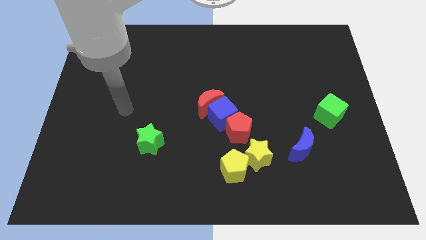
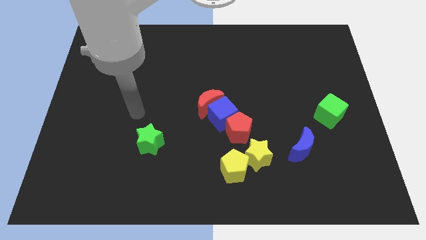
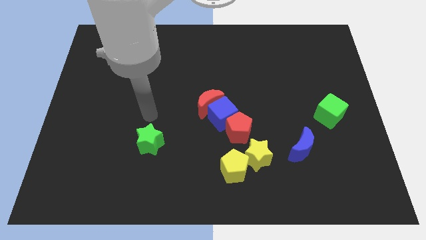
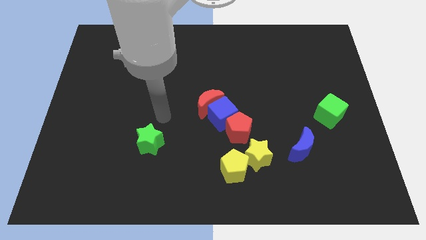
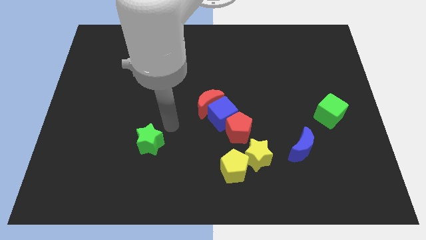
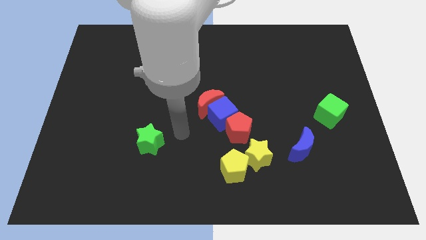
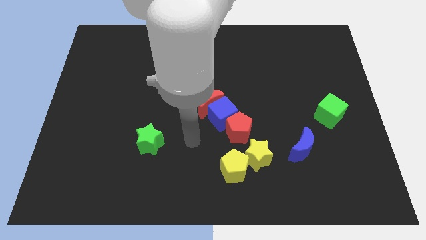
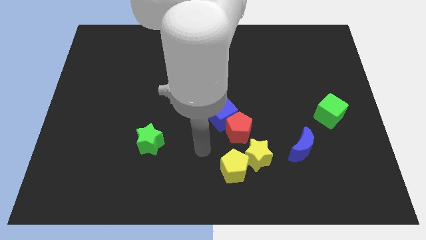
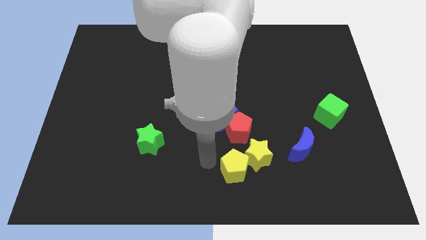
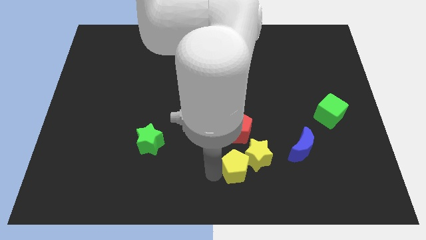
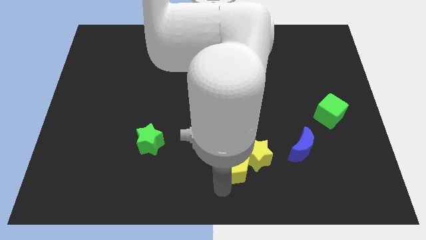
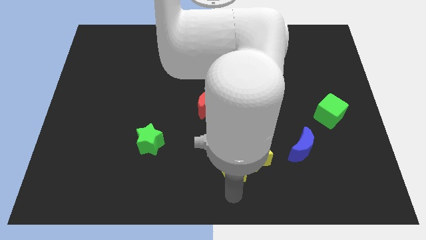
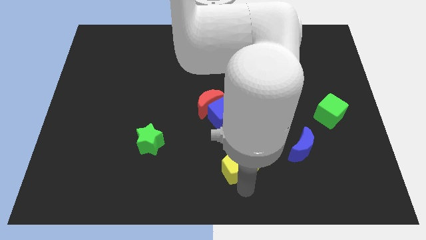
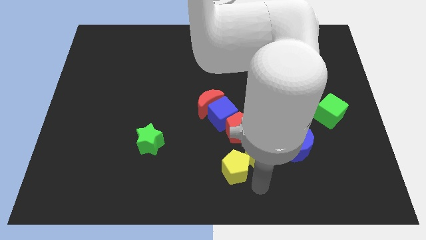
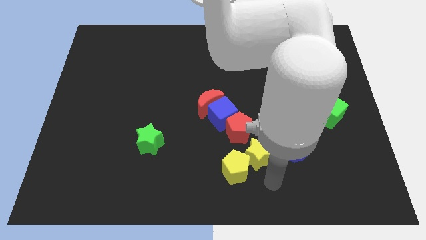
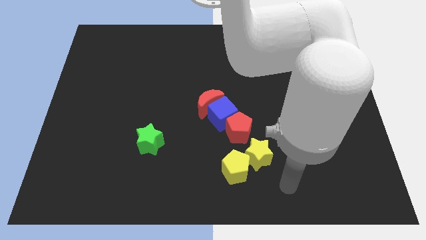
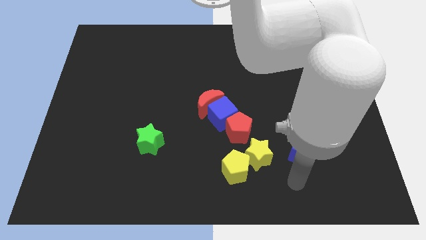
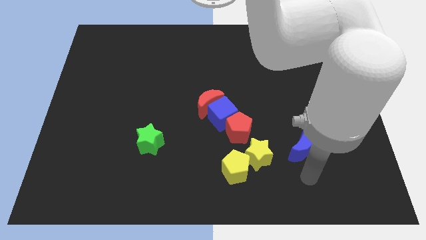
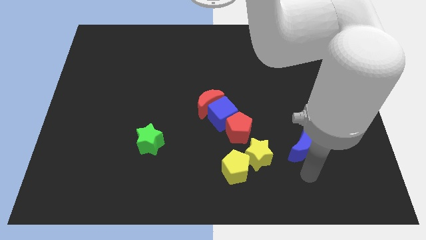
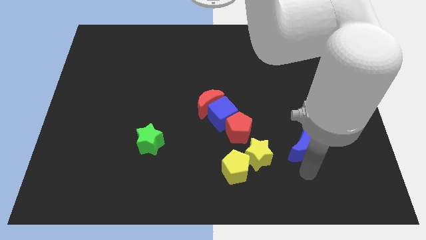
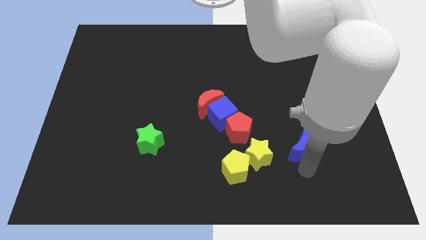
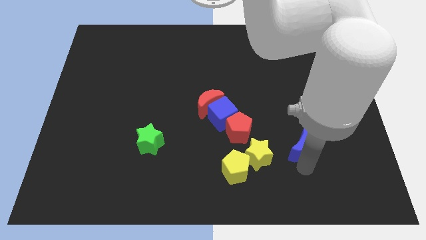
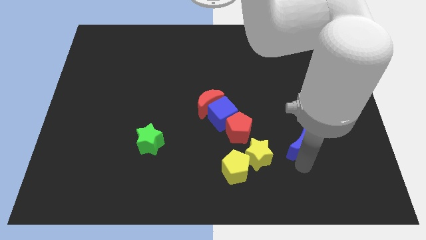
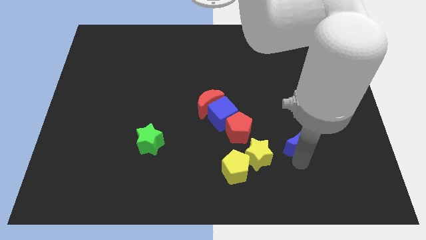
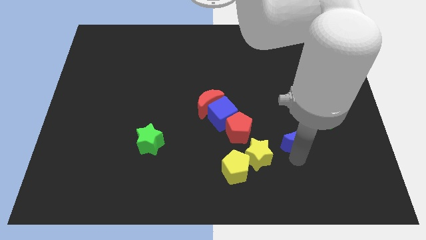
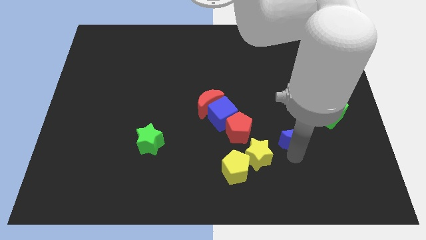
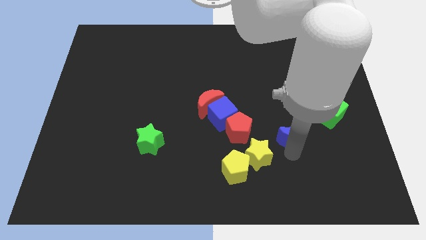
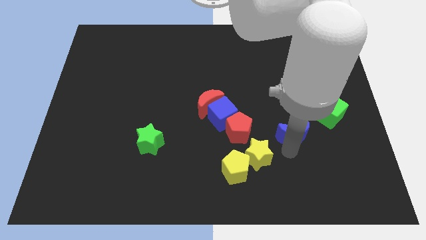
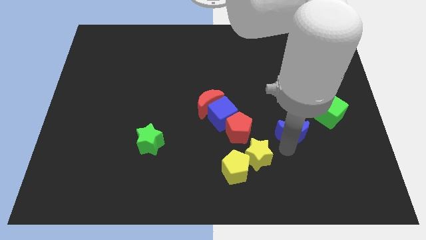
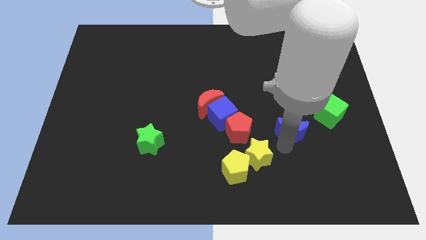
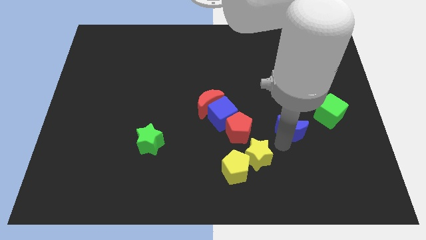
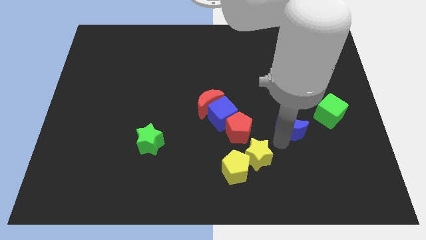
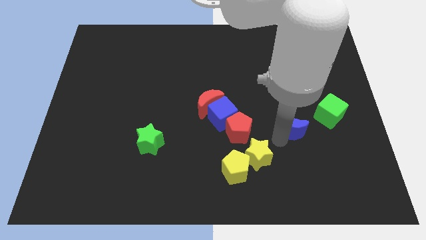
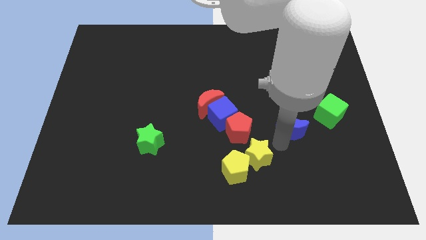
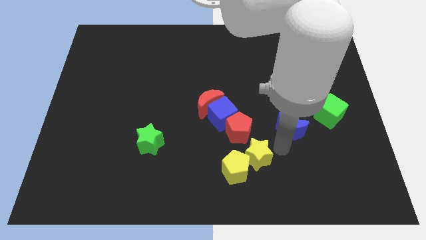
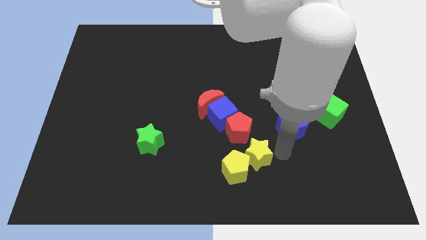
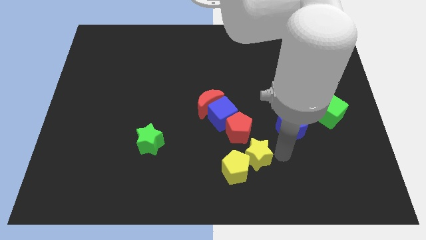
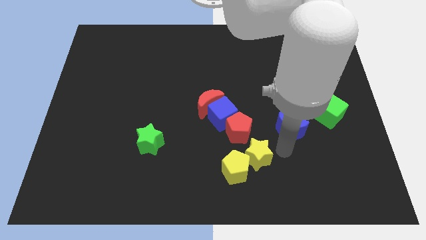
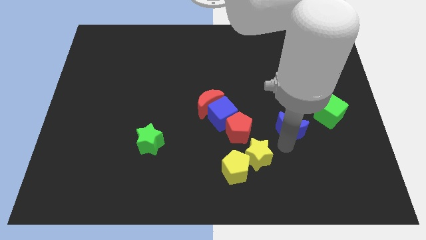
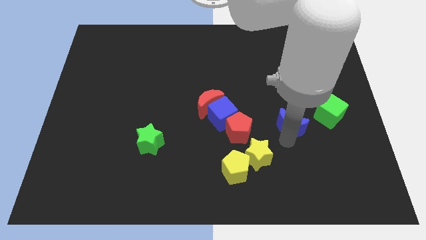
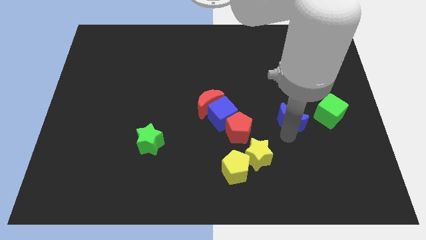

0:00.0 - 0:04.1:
slightly move the blue moon up

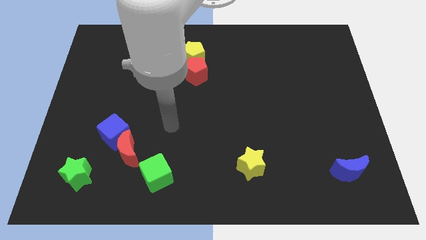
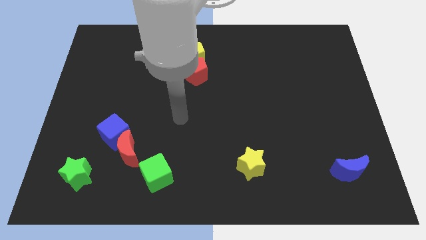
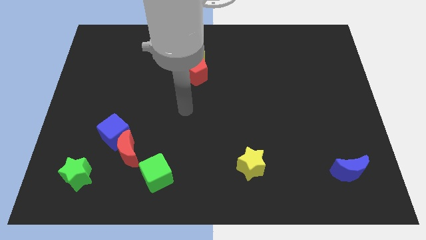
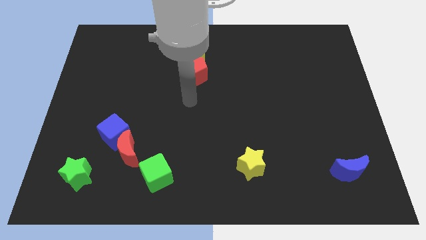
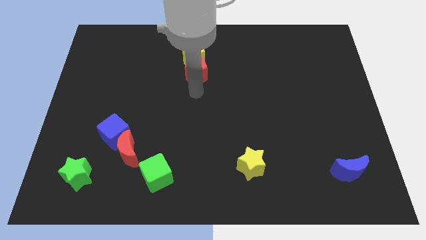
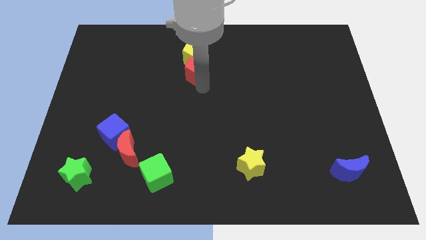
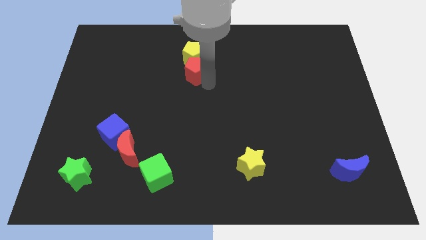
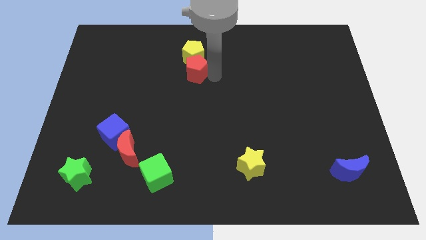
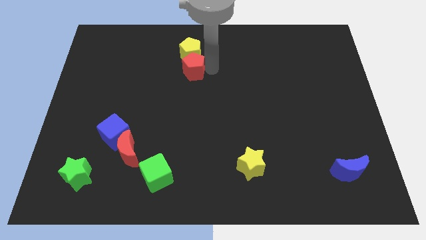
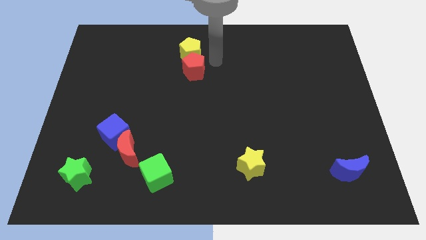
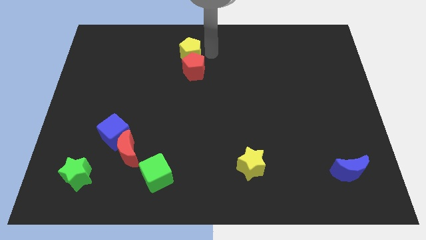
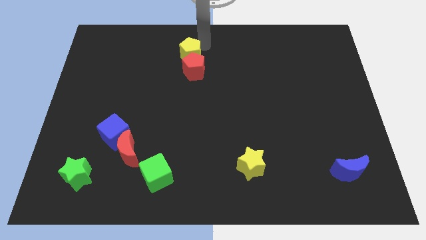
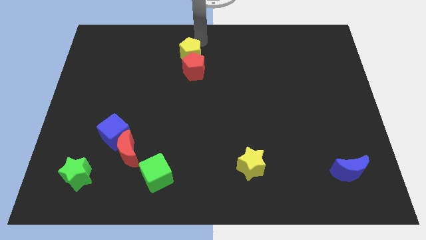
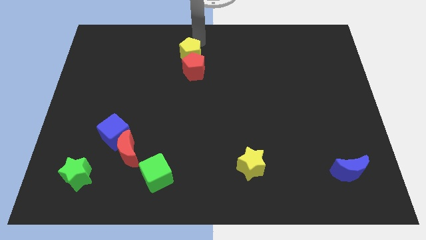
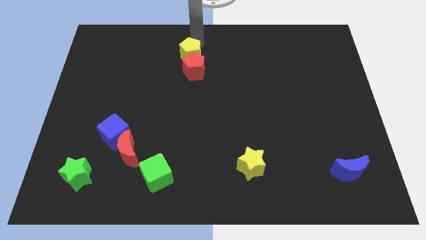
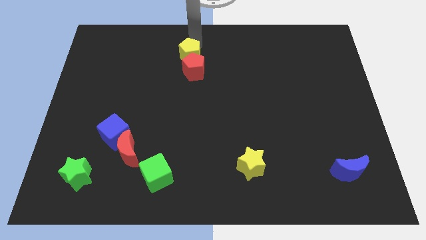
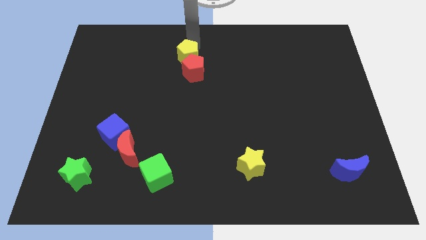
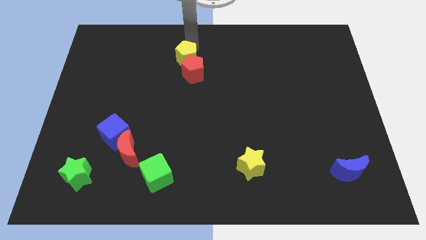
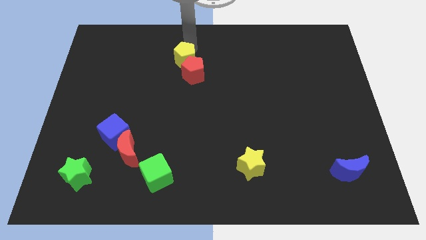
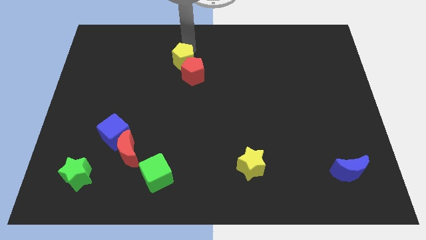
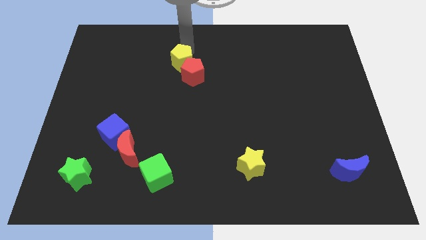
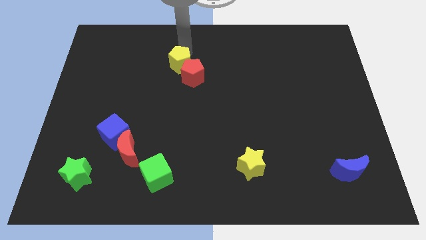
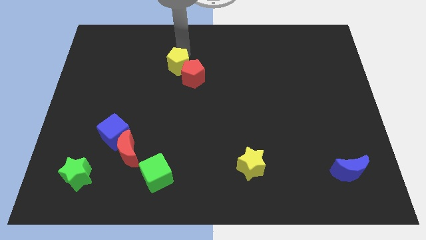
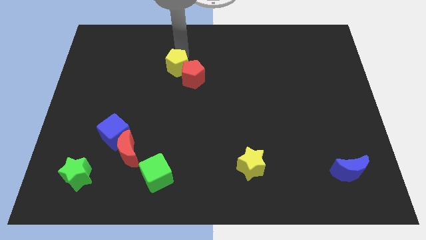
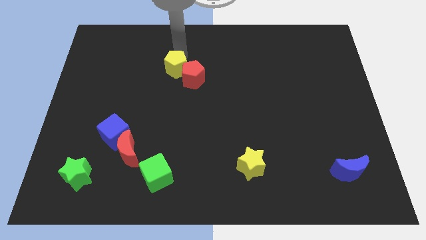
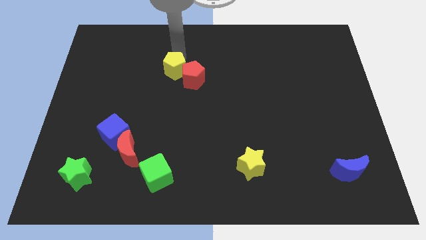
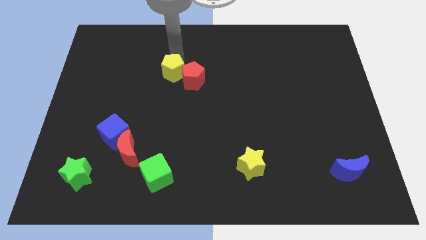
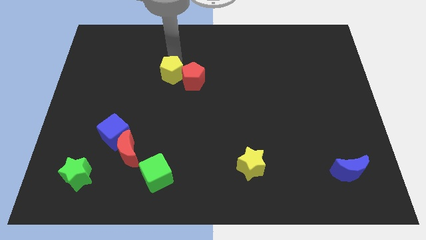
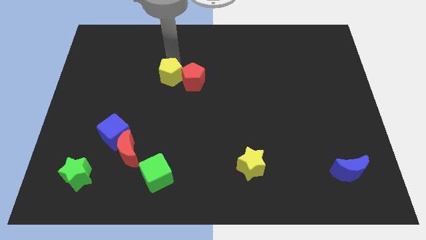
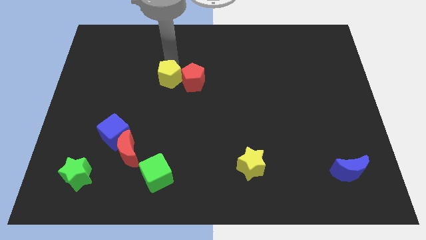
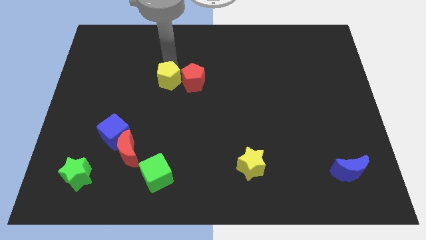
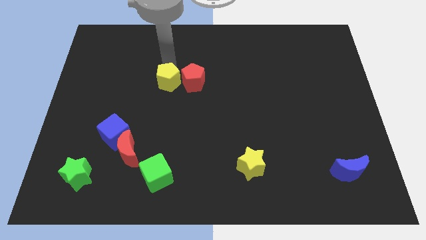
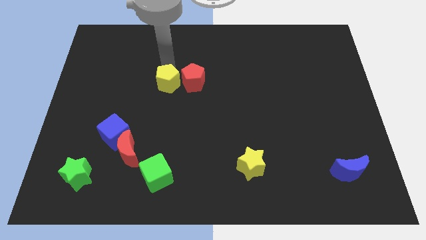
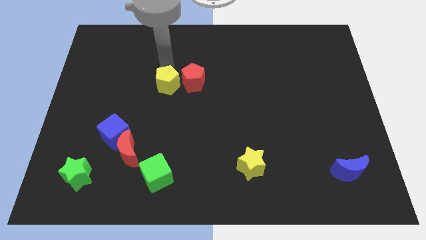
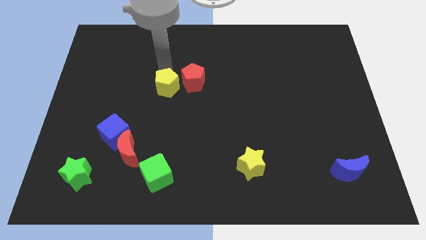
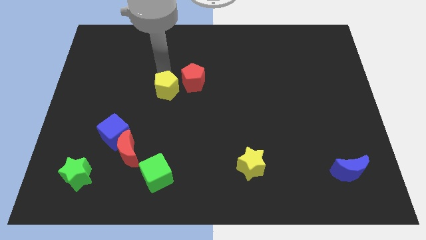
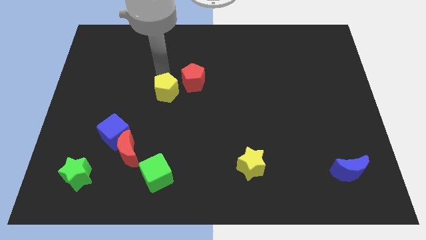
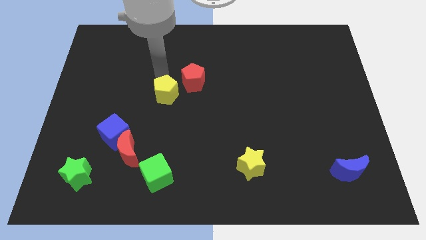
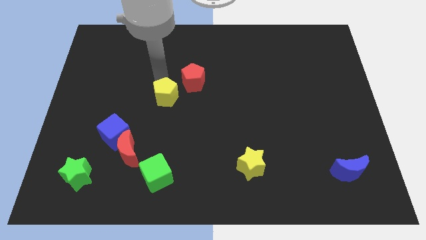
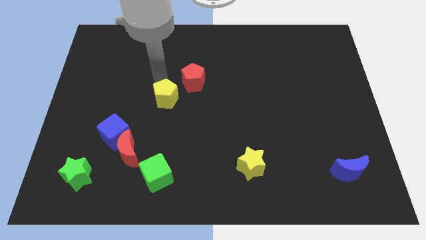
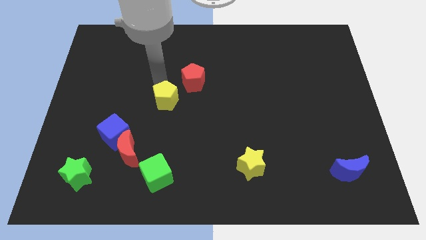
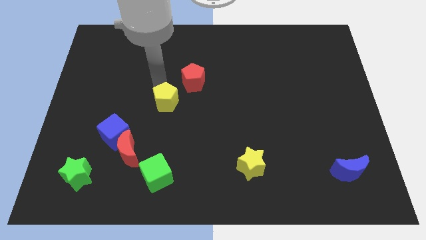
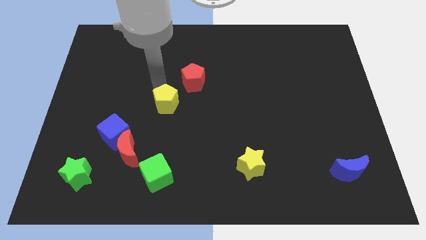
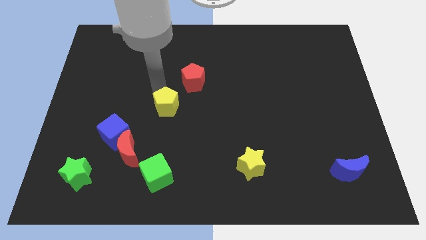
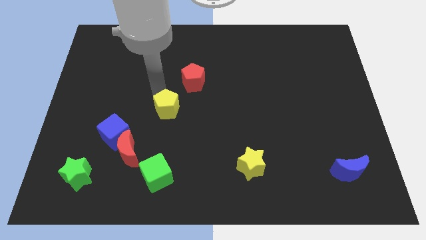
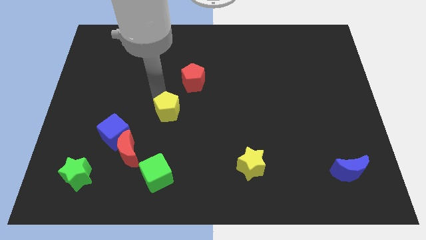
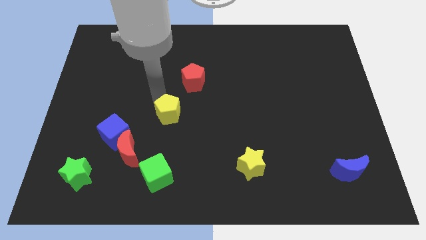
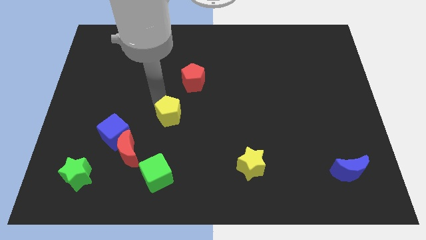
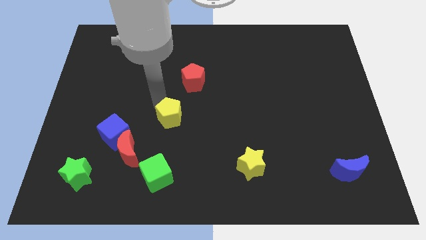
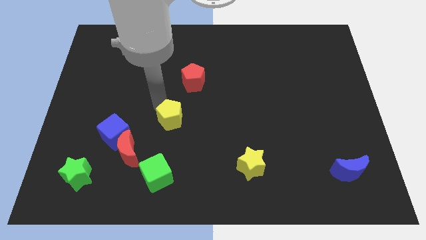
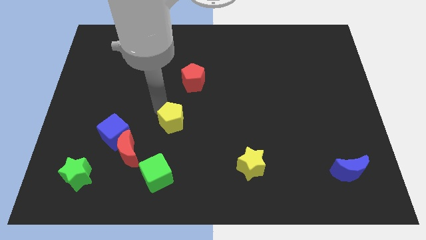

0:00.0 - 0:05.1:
slide the yellow pentagon down
